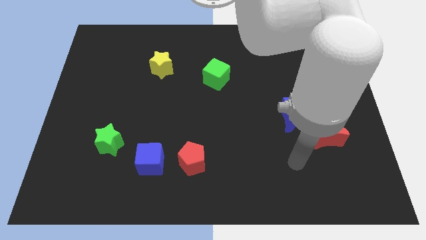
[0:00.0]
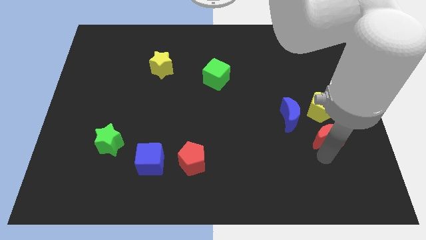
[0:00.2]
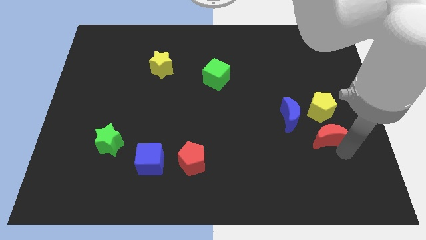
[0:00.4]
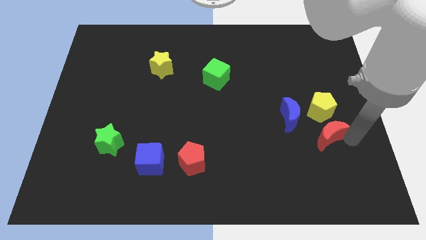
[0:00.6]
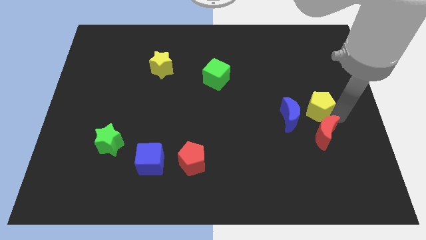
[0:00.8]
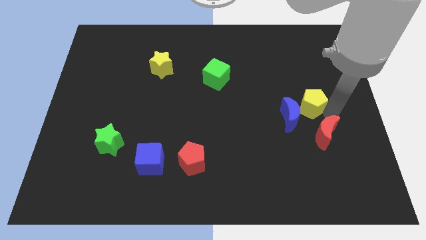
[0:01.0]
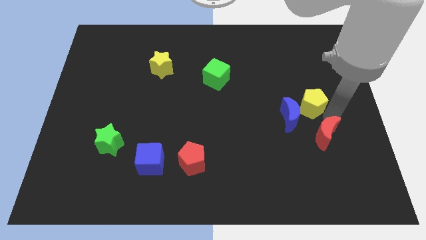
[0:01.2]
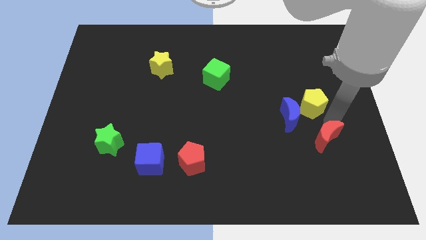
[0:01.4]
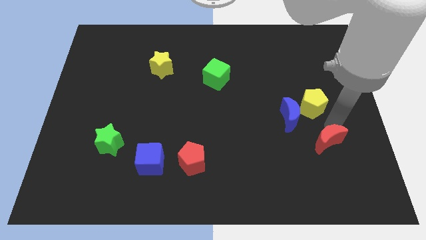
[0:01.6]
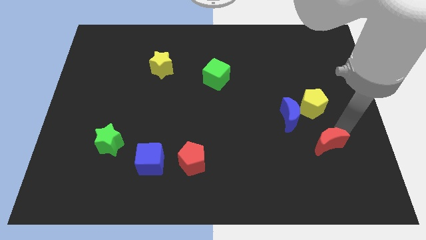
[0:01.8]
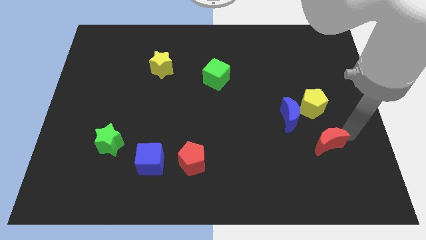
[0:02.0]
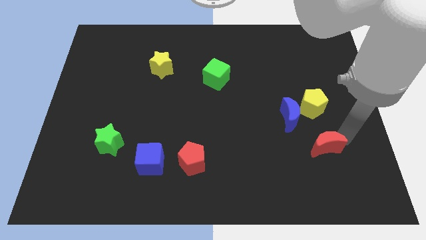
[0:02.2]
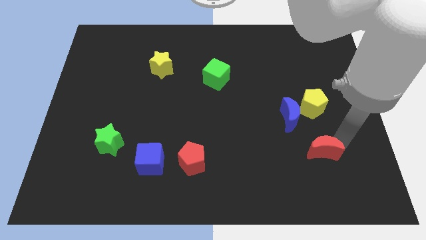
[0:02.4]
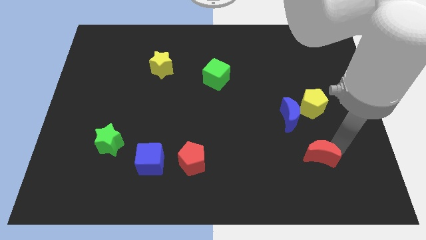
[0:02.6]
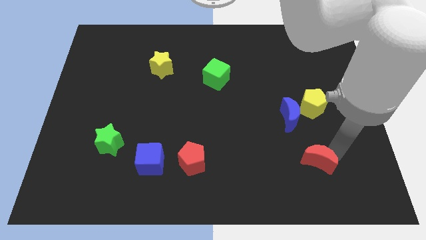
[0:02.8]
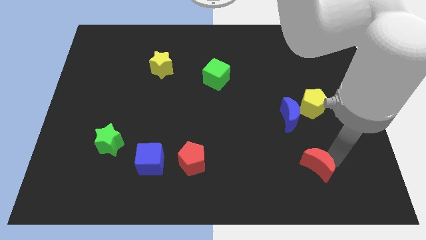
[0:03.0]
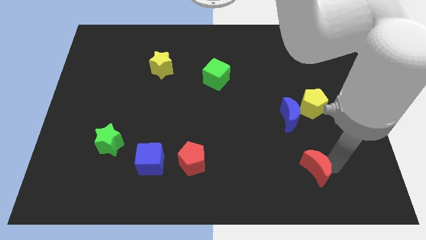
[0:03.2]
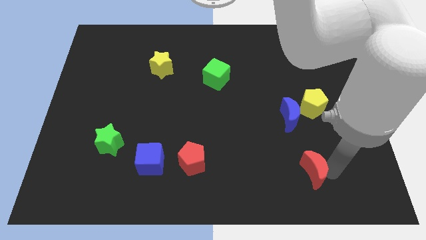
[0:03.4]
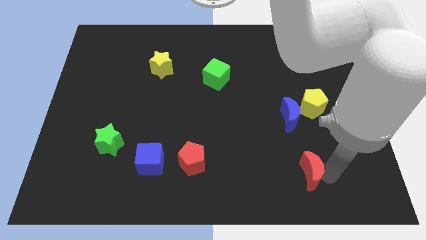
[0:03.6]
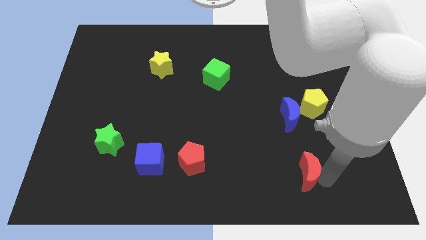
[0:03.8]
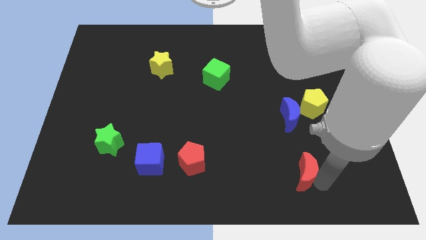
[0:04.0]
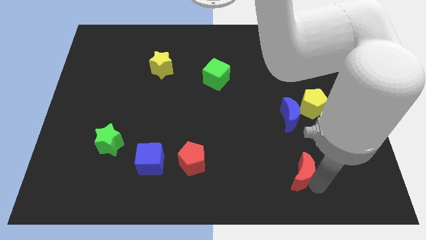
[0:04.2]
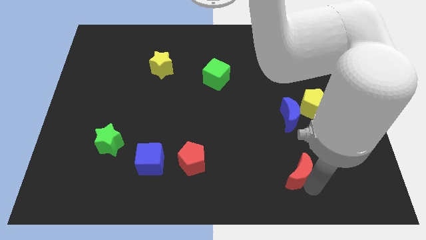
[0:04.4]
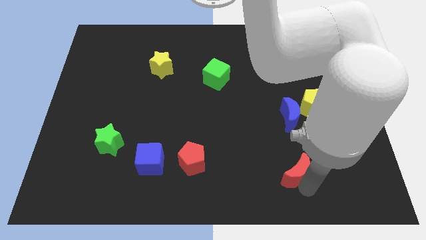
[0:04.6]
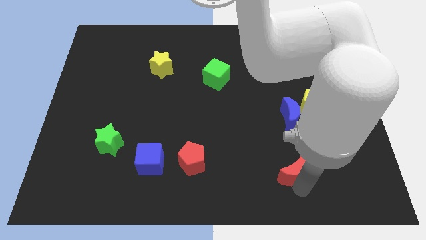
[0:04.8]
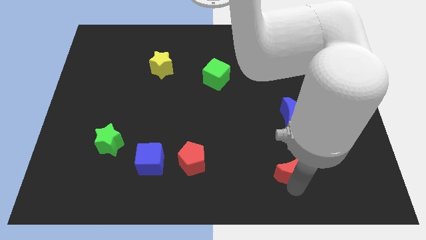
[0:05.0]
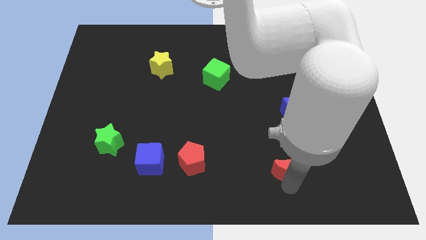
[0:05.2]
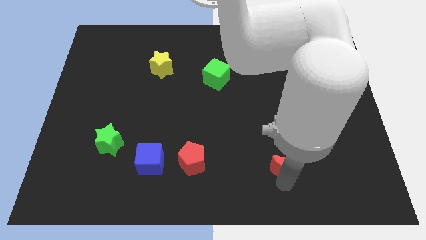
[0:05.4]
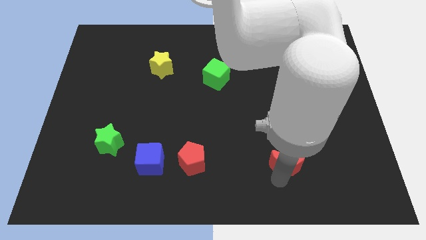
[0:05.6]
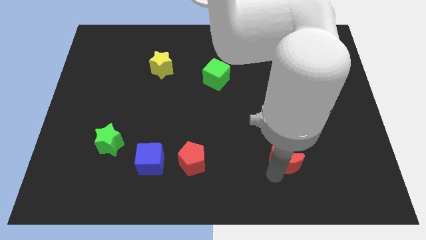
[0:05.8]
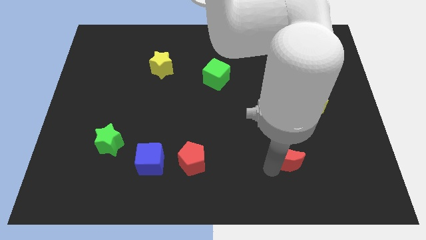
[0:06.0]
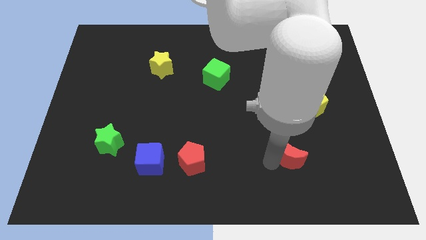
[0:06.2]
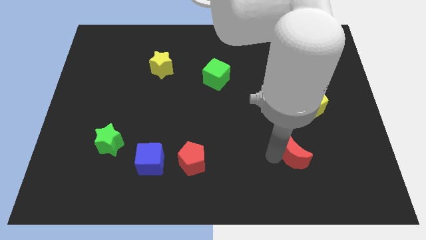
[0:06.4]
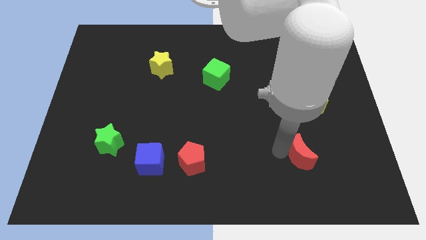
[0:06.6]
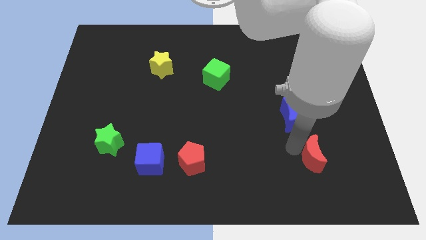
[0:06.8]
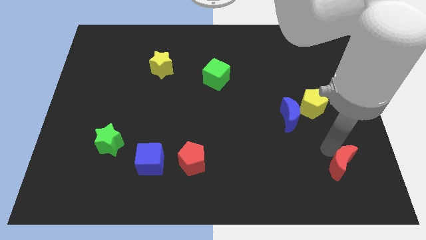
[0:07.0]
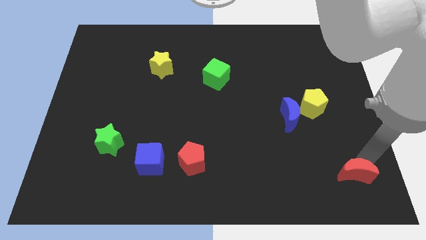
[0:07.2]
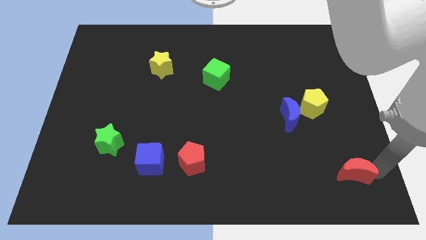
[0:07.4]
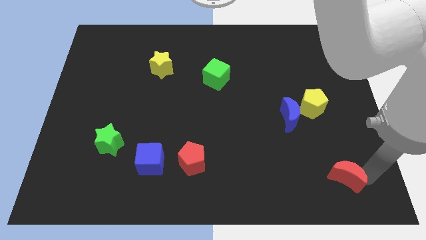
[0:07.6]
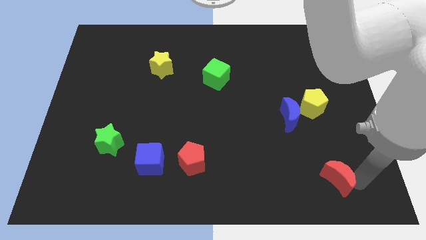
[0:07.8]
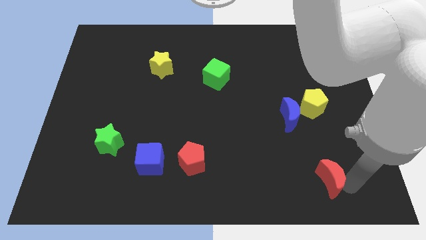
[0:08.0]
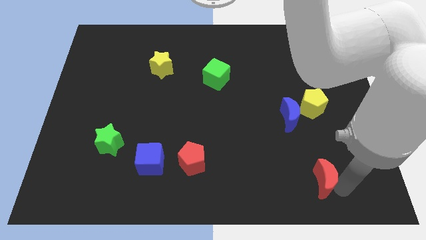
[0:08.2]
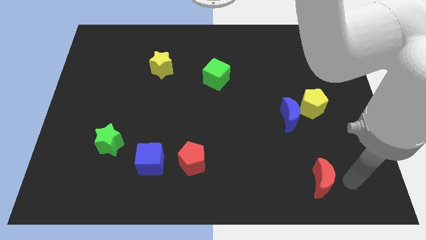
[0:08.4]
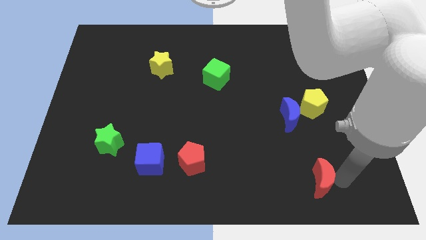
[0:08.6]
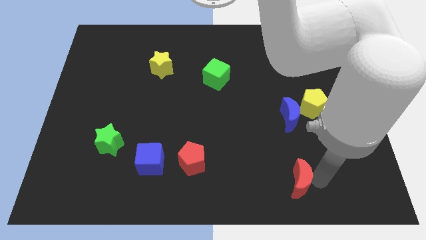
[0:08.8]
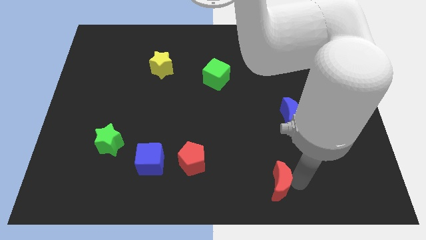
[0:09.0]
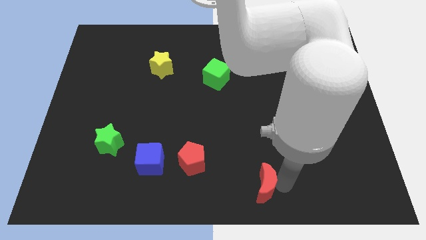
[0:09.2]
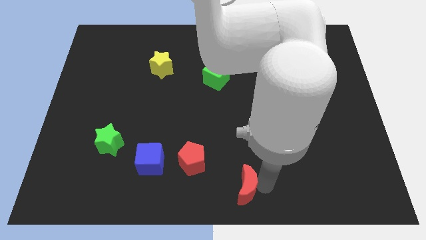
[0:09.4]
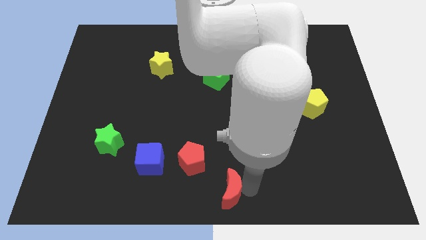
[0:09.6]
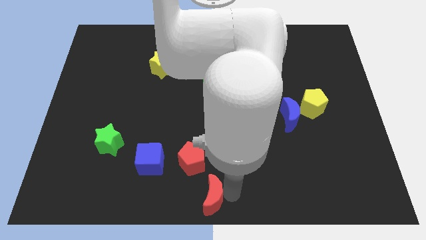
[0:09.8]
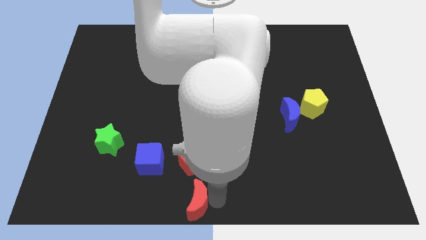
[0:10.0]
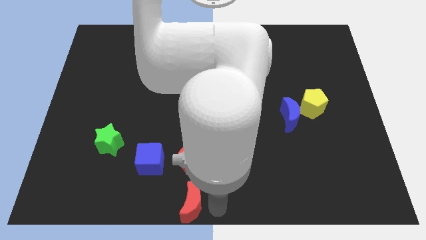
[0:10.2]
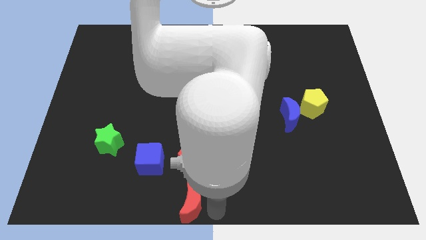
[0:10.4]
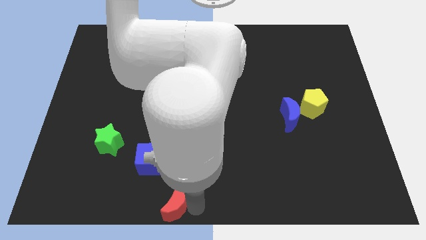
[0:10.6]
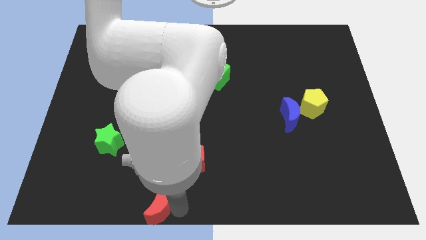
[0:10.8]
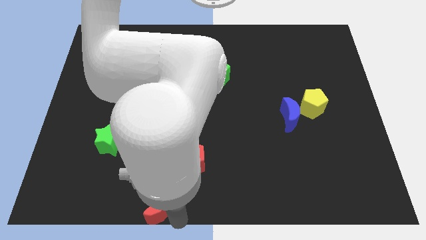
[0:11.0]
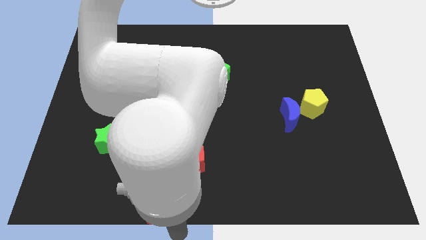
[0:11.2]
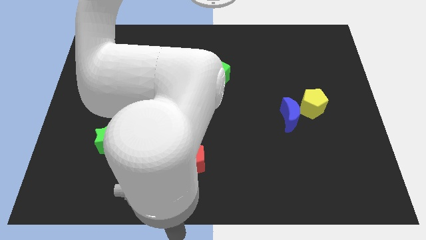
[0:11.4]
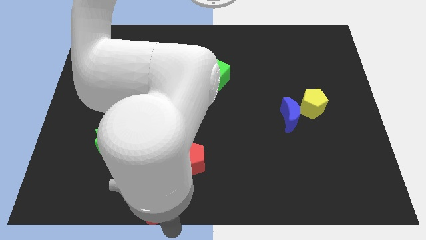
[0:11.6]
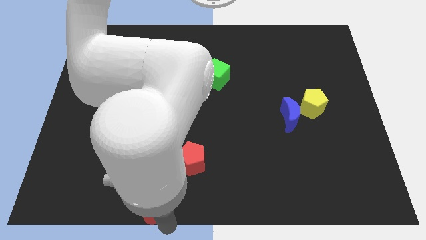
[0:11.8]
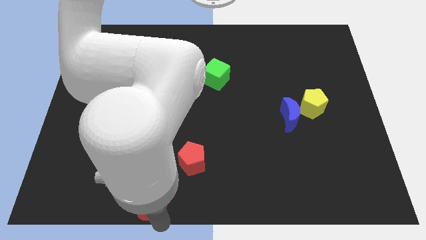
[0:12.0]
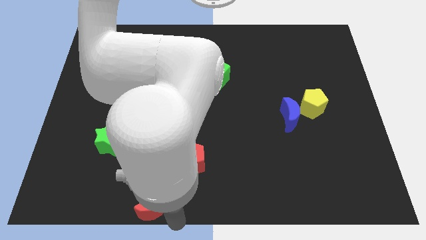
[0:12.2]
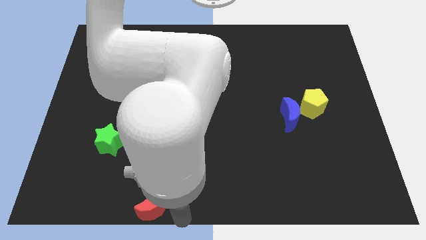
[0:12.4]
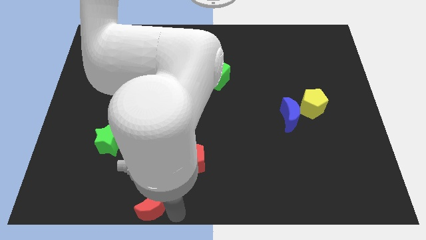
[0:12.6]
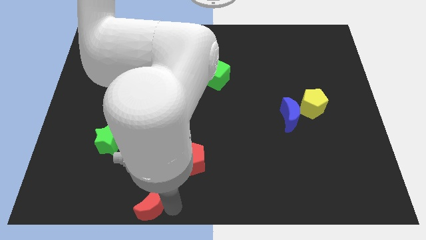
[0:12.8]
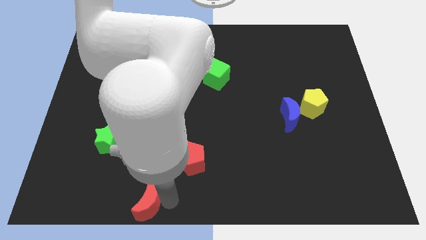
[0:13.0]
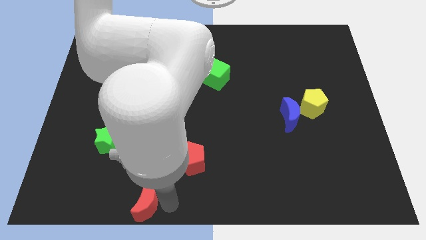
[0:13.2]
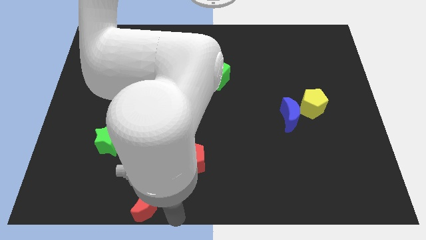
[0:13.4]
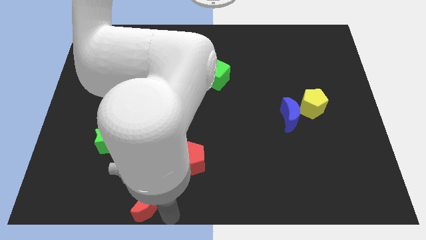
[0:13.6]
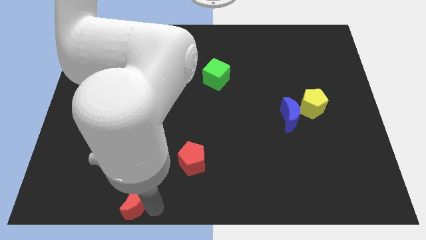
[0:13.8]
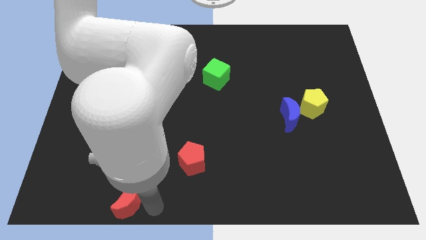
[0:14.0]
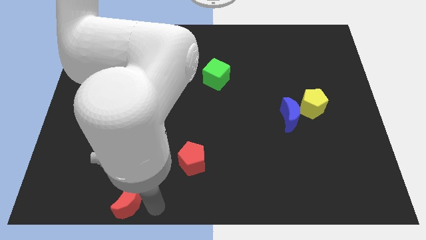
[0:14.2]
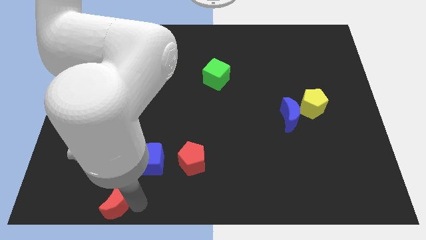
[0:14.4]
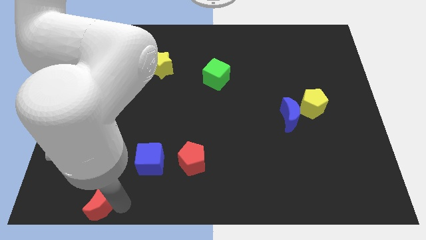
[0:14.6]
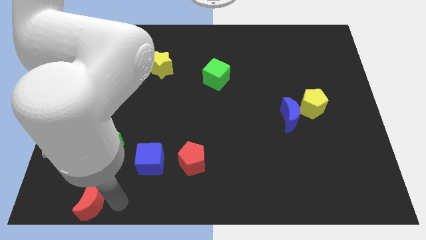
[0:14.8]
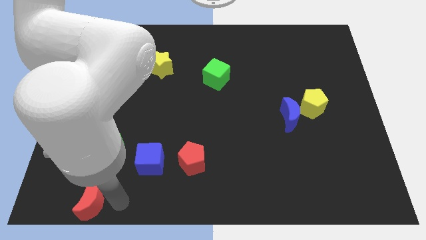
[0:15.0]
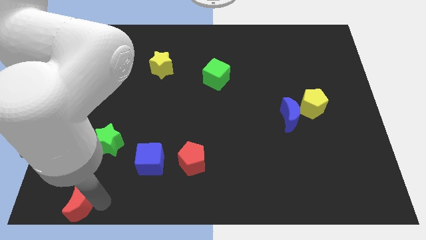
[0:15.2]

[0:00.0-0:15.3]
slide the red moon to the bottom left of the board
